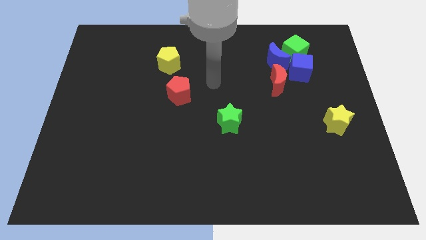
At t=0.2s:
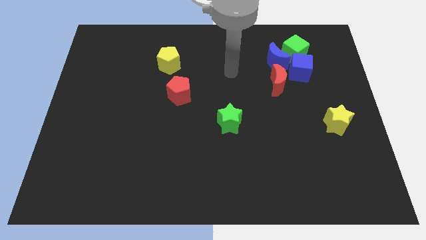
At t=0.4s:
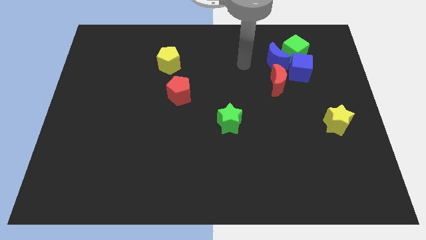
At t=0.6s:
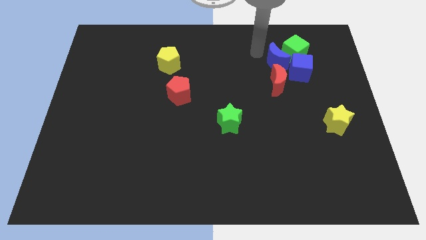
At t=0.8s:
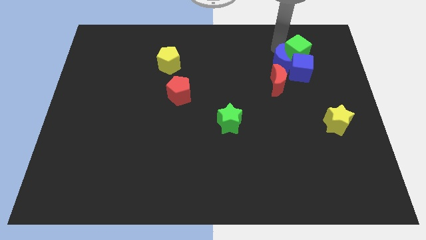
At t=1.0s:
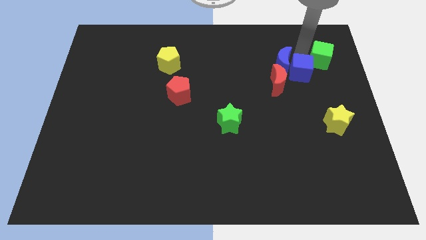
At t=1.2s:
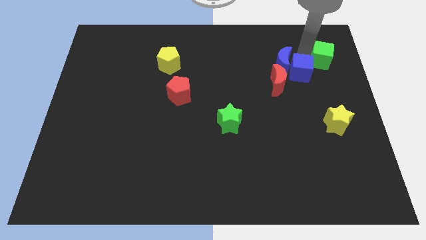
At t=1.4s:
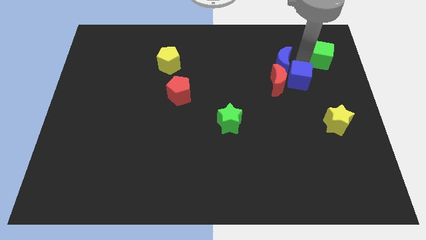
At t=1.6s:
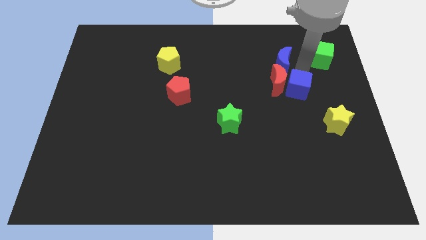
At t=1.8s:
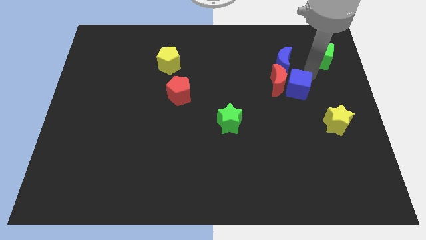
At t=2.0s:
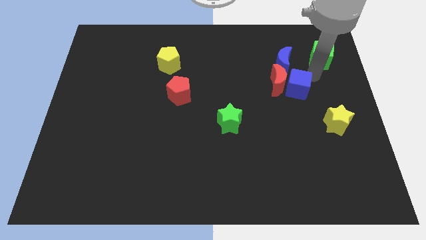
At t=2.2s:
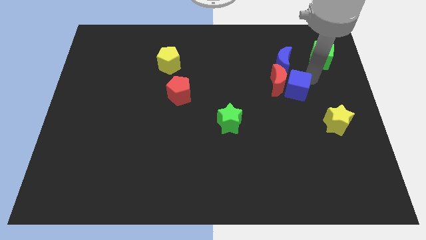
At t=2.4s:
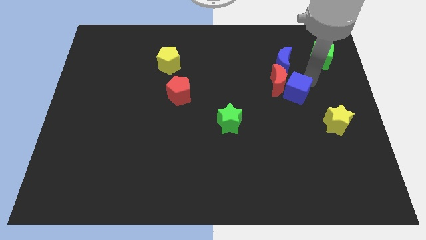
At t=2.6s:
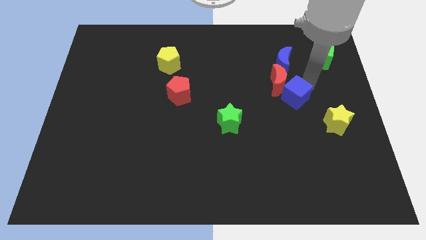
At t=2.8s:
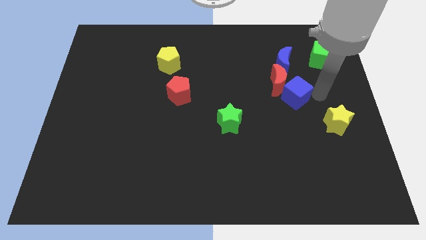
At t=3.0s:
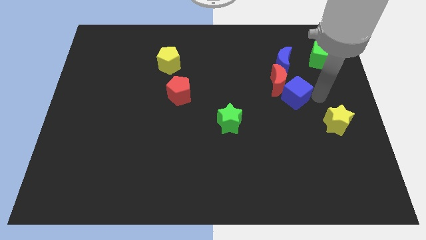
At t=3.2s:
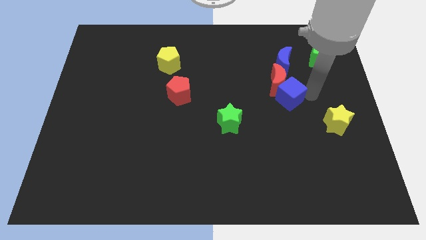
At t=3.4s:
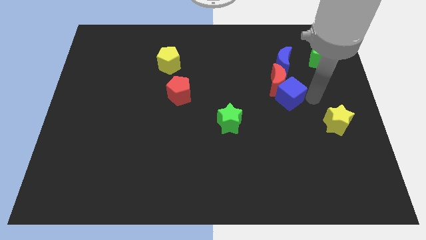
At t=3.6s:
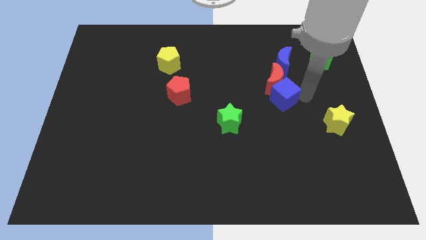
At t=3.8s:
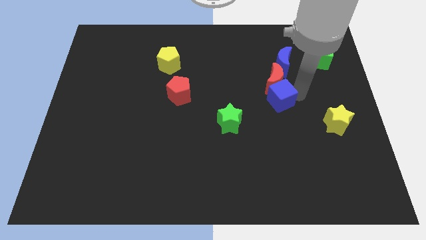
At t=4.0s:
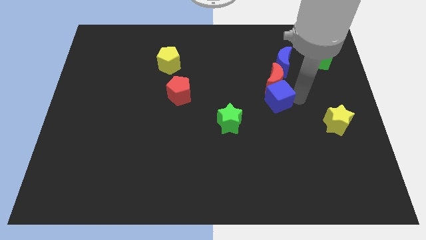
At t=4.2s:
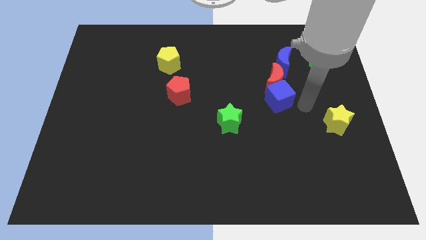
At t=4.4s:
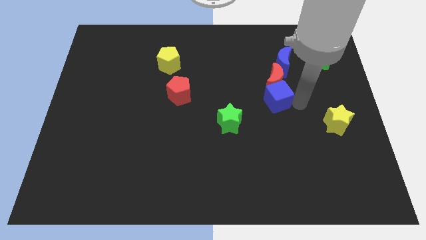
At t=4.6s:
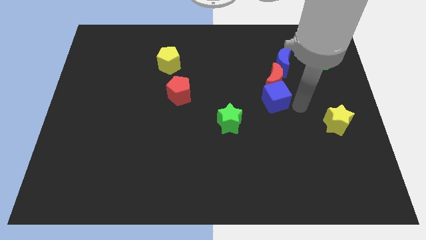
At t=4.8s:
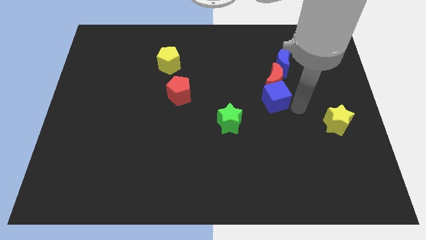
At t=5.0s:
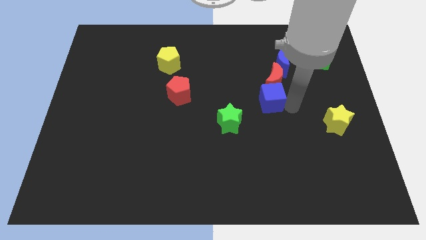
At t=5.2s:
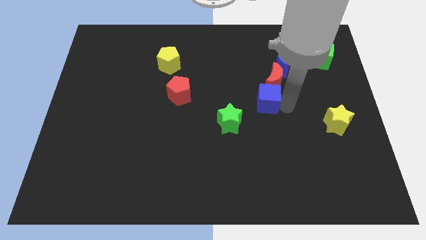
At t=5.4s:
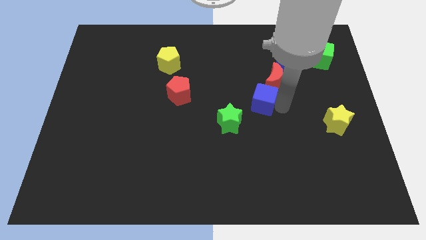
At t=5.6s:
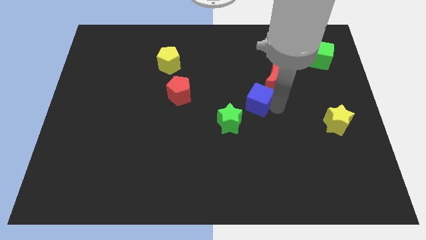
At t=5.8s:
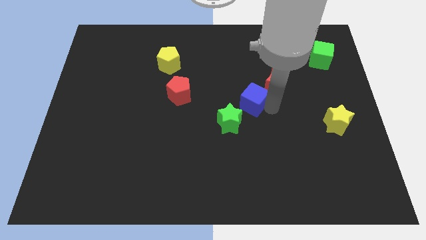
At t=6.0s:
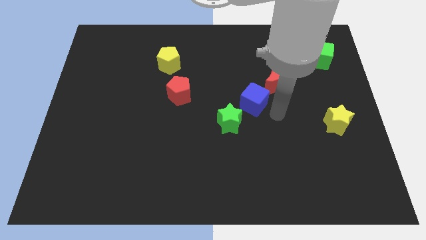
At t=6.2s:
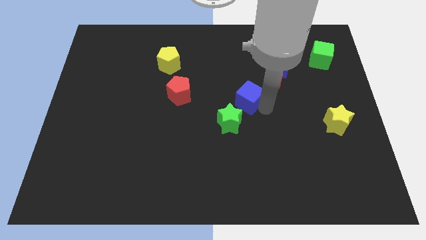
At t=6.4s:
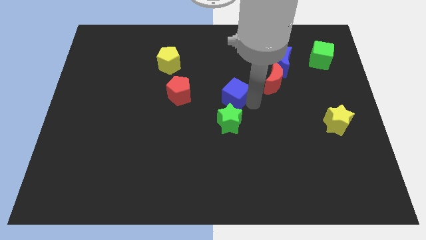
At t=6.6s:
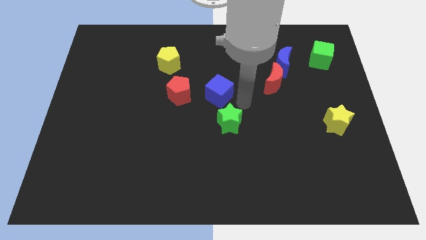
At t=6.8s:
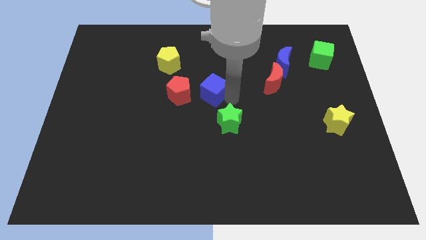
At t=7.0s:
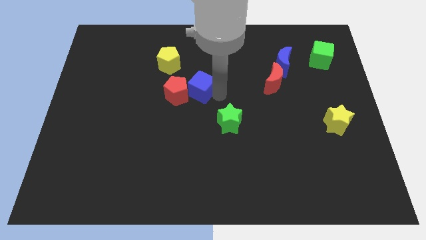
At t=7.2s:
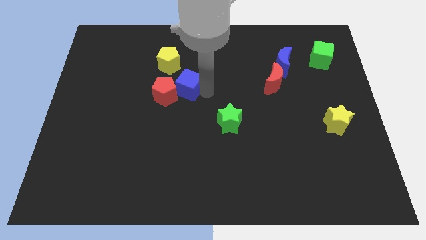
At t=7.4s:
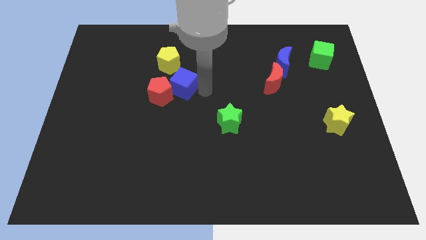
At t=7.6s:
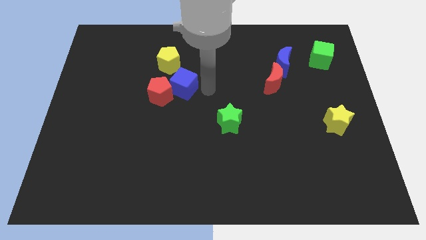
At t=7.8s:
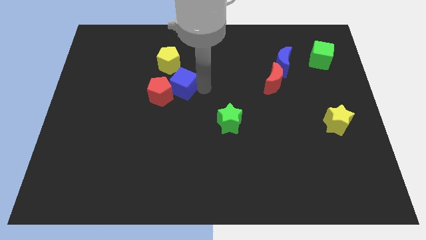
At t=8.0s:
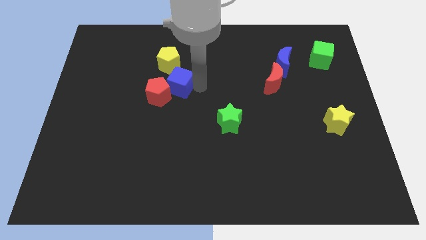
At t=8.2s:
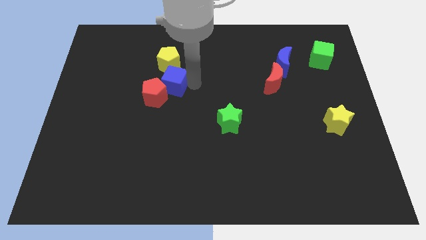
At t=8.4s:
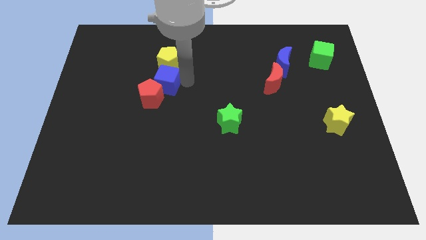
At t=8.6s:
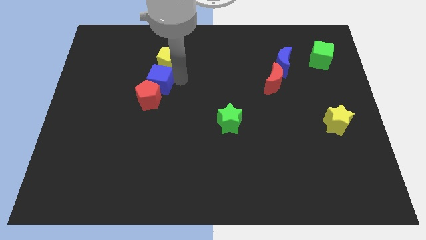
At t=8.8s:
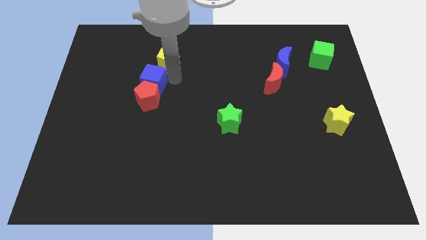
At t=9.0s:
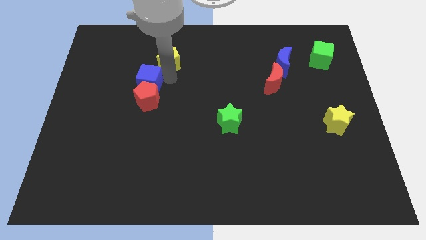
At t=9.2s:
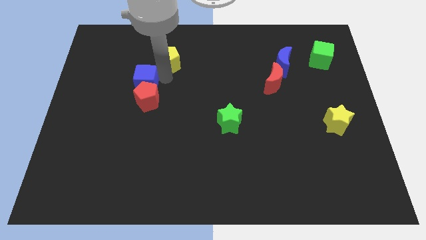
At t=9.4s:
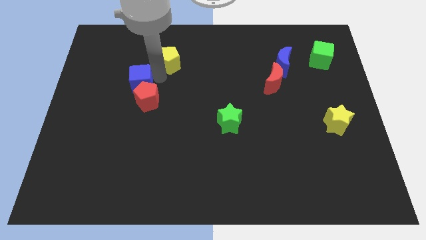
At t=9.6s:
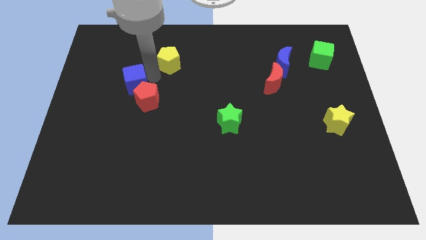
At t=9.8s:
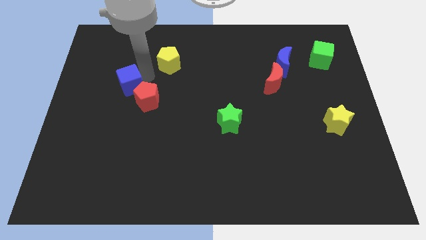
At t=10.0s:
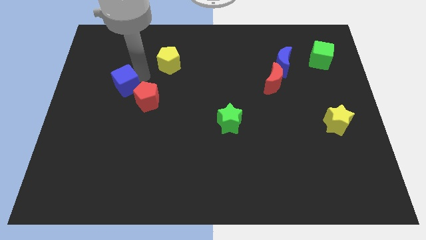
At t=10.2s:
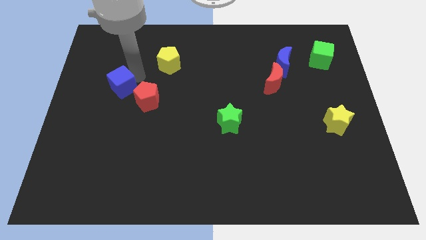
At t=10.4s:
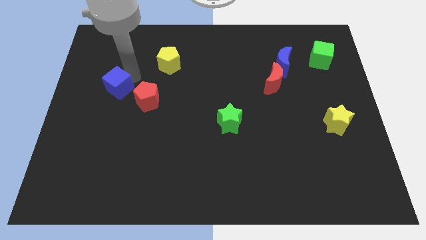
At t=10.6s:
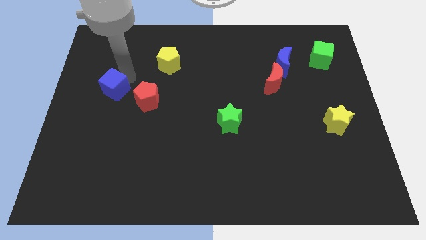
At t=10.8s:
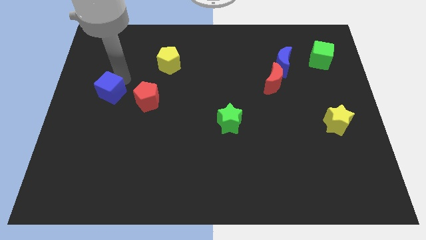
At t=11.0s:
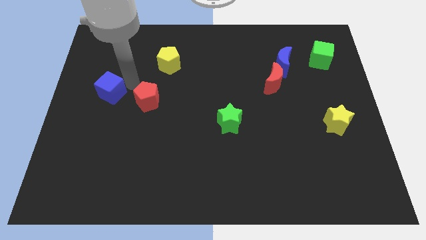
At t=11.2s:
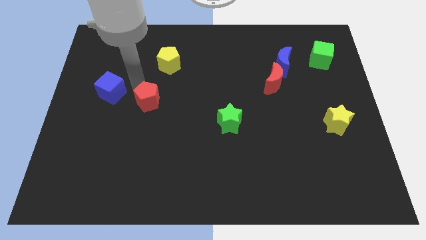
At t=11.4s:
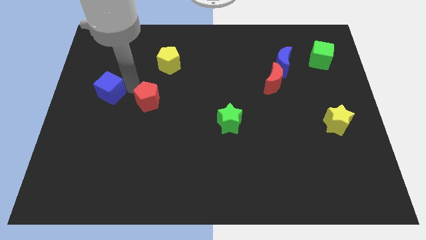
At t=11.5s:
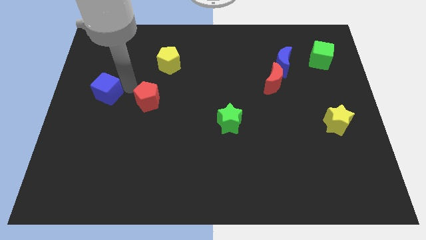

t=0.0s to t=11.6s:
push the blue cube to the left side of the board

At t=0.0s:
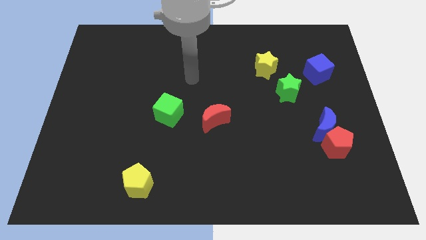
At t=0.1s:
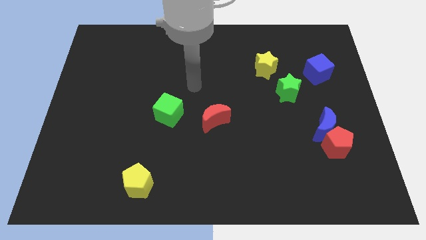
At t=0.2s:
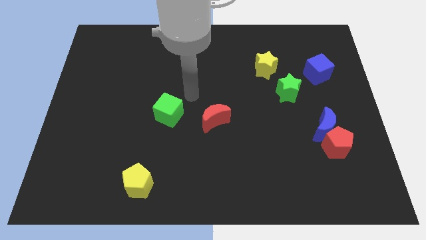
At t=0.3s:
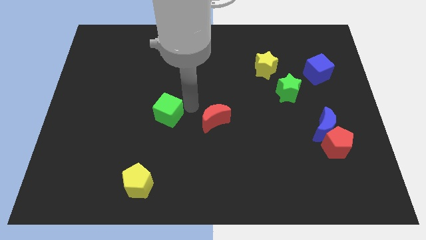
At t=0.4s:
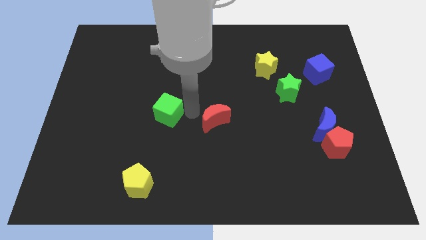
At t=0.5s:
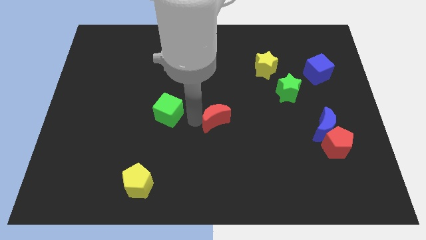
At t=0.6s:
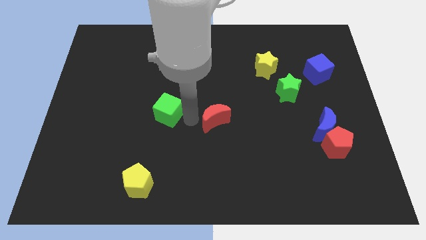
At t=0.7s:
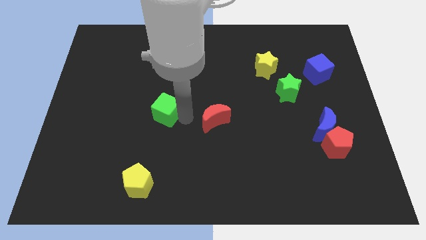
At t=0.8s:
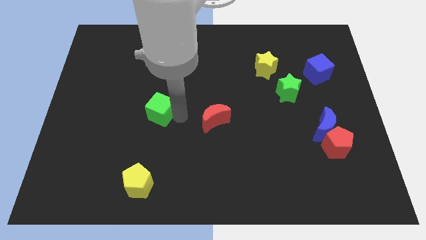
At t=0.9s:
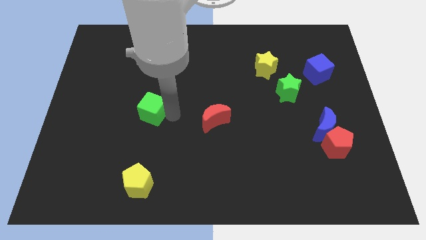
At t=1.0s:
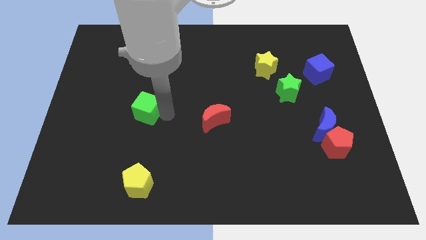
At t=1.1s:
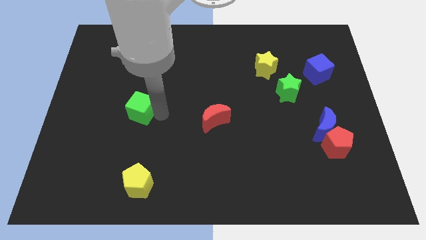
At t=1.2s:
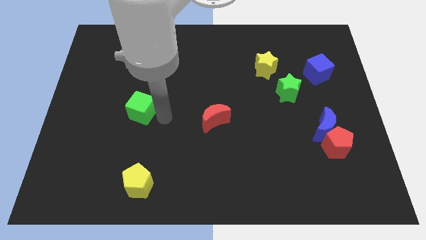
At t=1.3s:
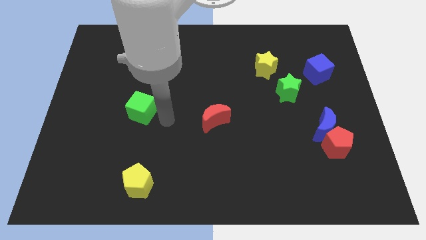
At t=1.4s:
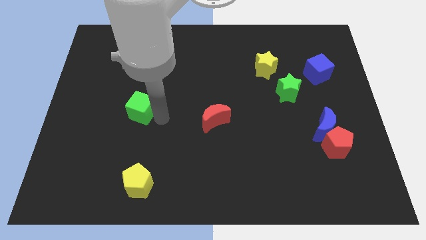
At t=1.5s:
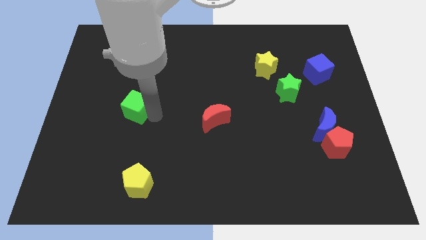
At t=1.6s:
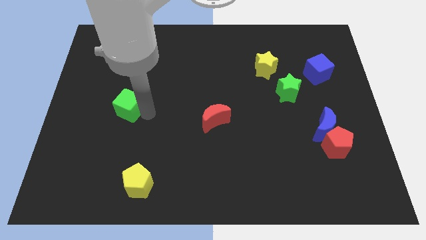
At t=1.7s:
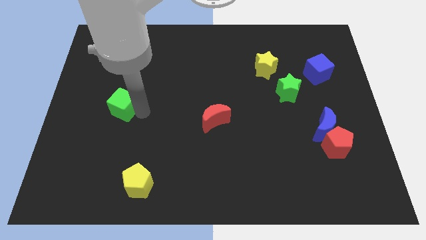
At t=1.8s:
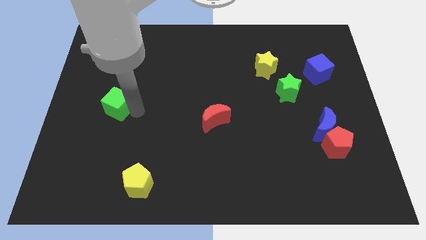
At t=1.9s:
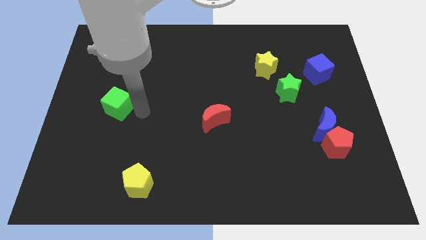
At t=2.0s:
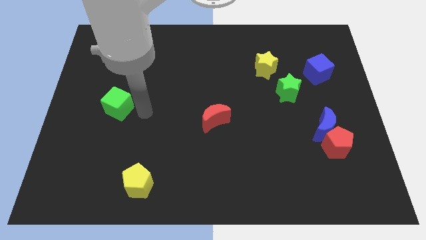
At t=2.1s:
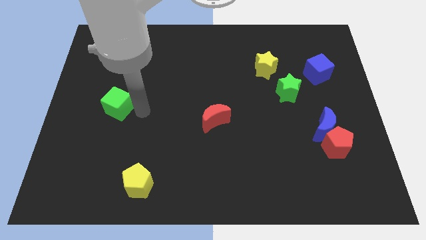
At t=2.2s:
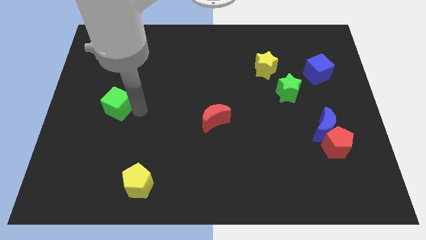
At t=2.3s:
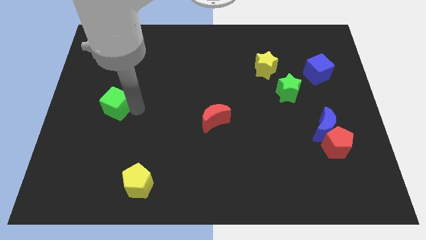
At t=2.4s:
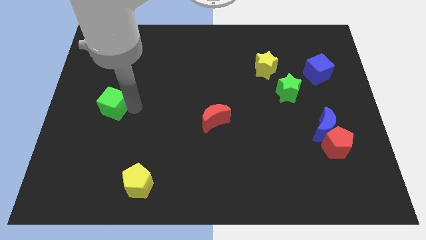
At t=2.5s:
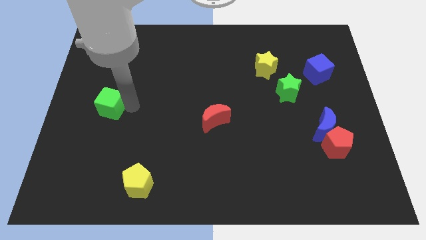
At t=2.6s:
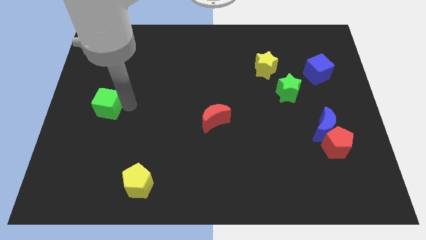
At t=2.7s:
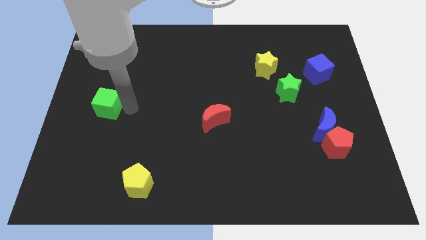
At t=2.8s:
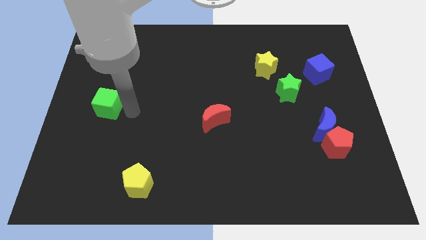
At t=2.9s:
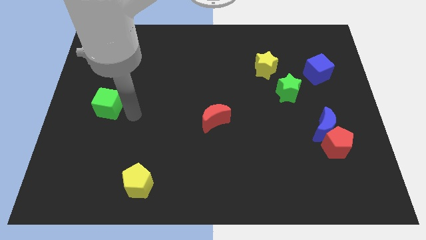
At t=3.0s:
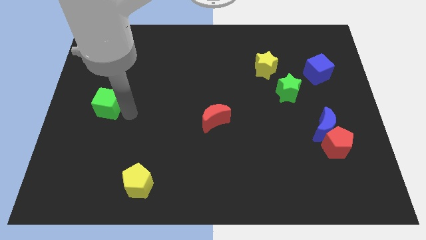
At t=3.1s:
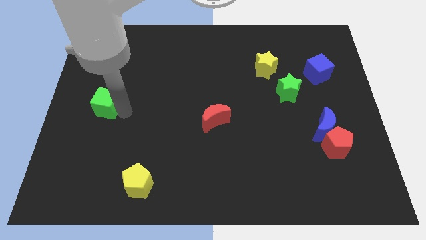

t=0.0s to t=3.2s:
push the green cube to the left side
